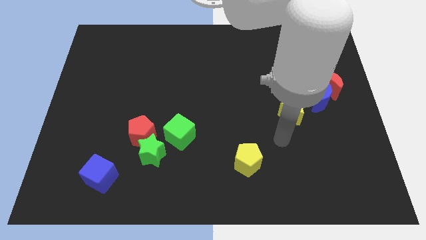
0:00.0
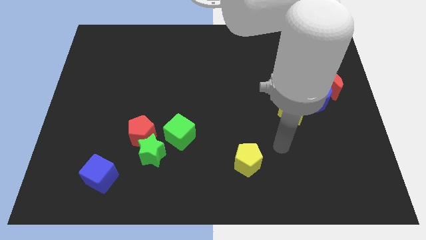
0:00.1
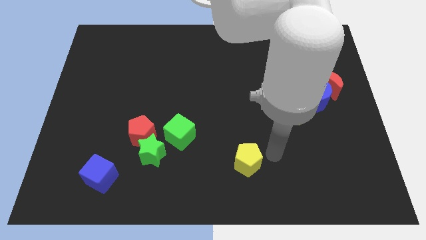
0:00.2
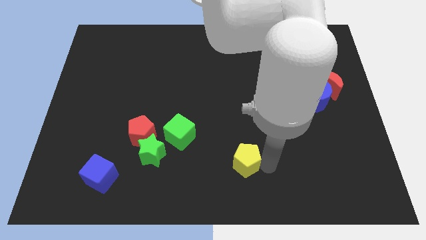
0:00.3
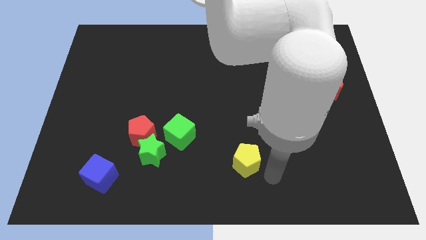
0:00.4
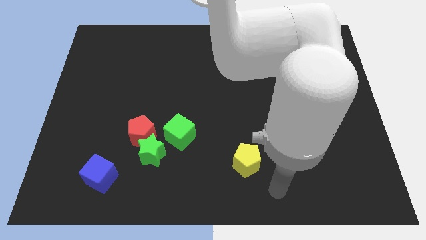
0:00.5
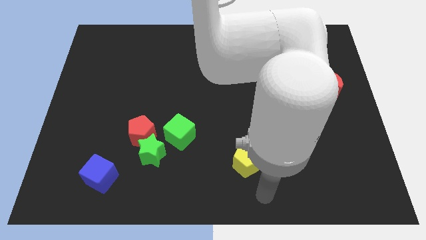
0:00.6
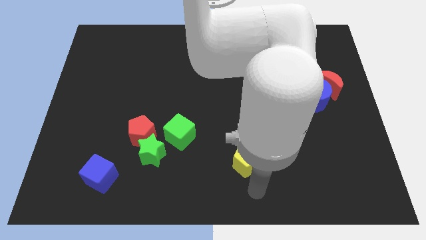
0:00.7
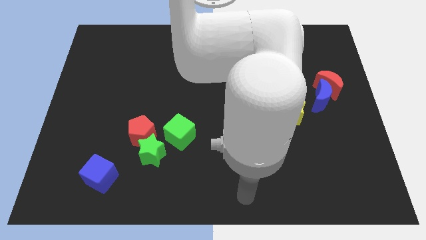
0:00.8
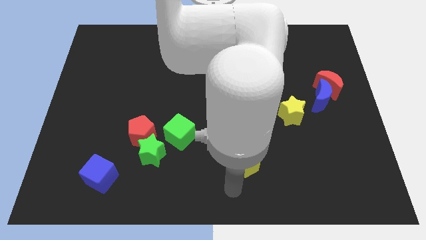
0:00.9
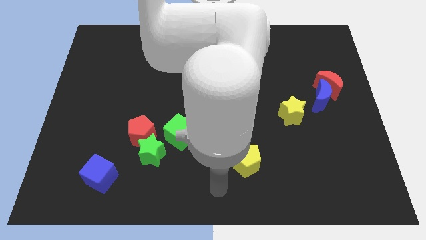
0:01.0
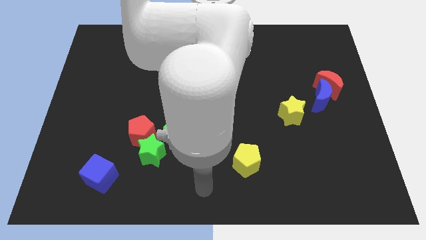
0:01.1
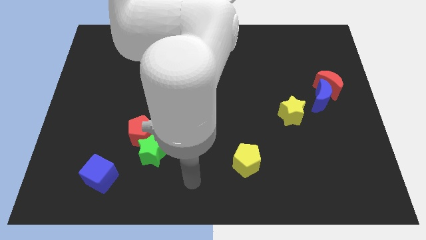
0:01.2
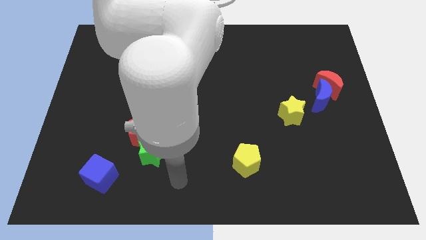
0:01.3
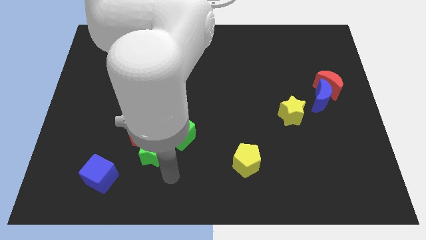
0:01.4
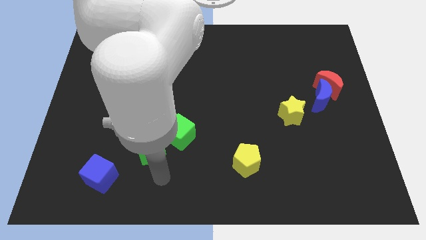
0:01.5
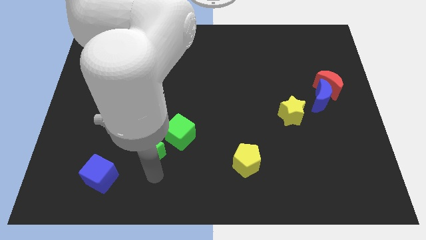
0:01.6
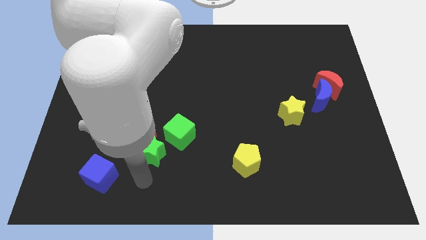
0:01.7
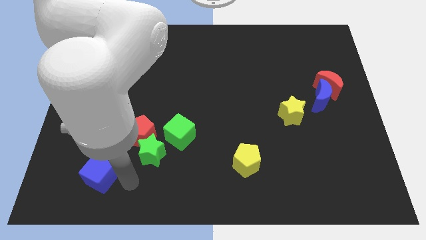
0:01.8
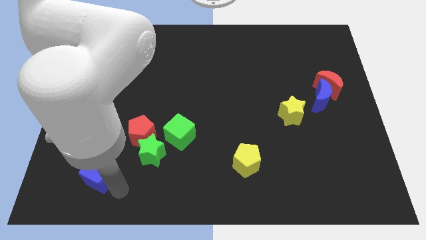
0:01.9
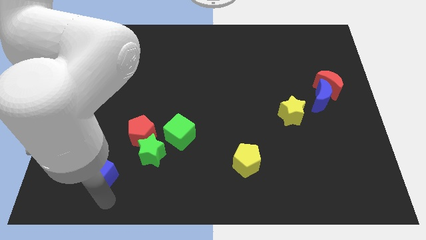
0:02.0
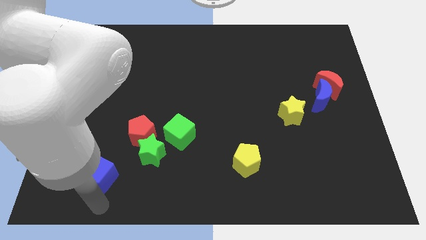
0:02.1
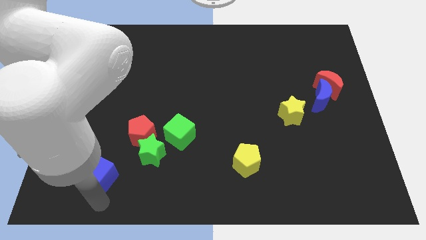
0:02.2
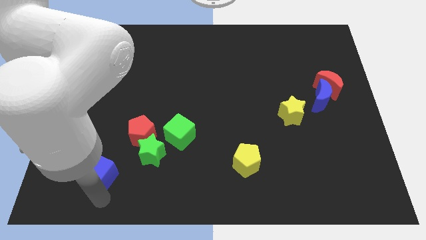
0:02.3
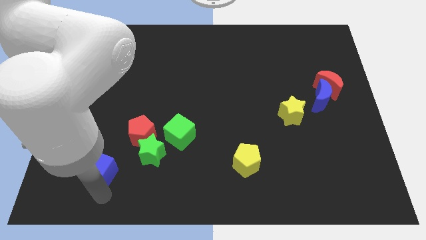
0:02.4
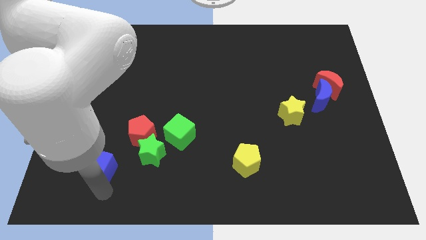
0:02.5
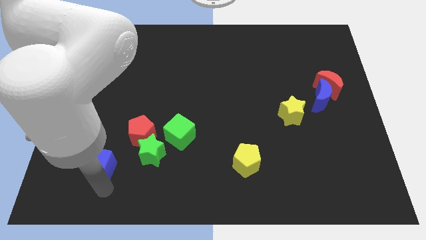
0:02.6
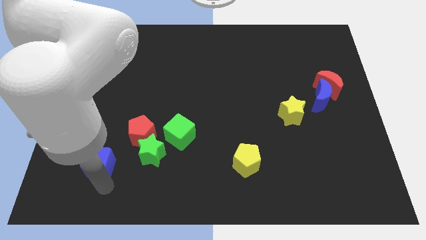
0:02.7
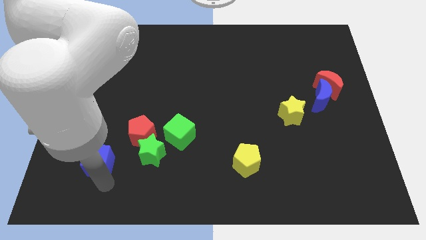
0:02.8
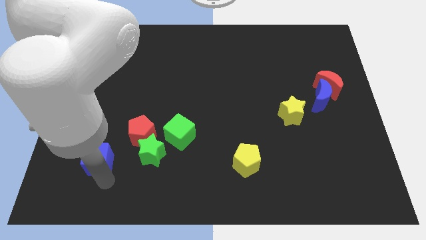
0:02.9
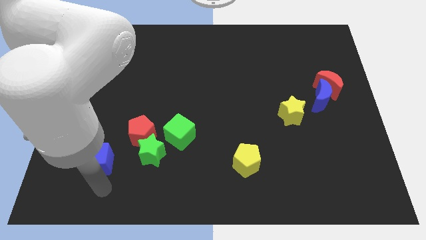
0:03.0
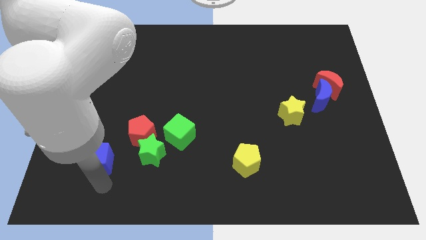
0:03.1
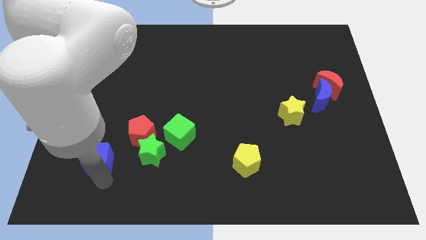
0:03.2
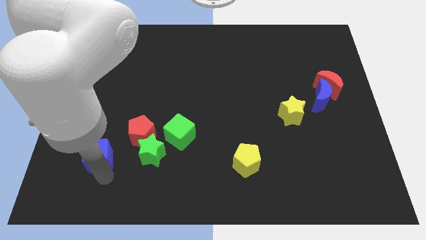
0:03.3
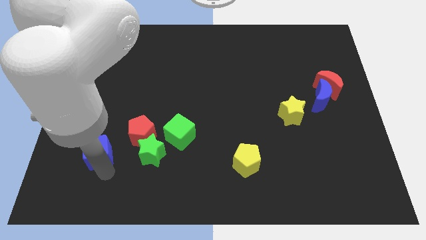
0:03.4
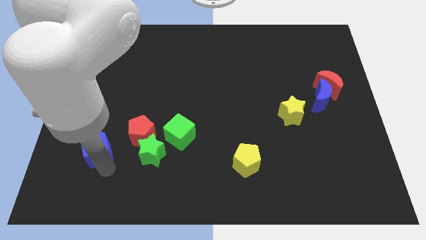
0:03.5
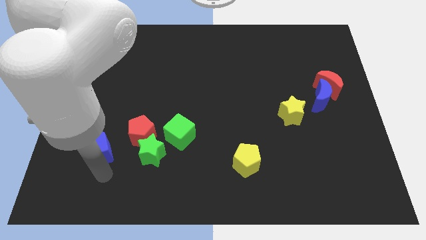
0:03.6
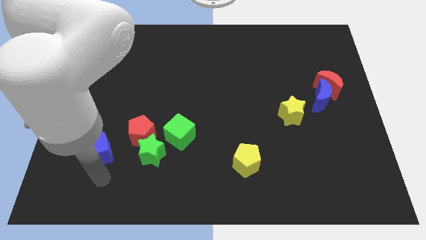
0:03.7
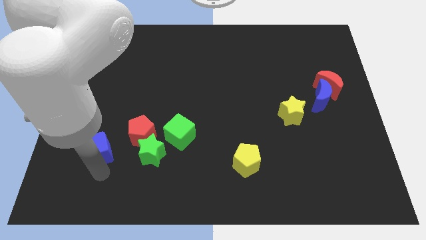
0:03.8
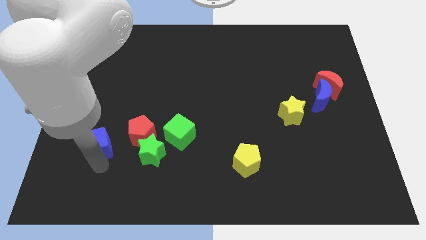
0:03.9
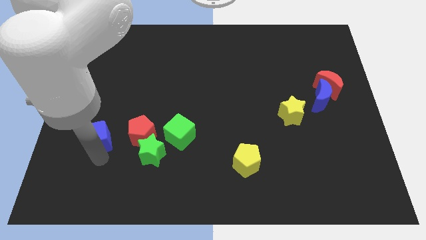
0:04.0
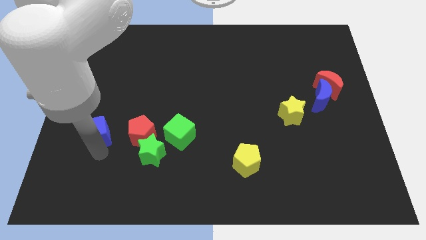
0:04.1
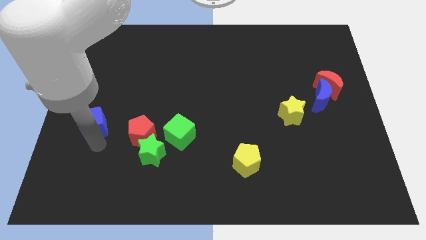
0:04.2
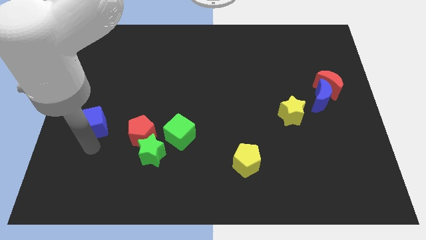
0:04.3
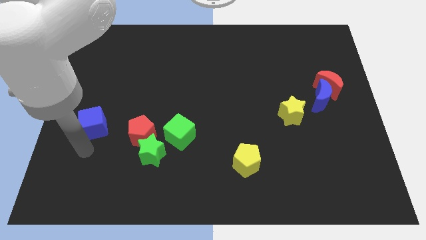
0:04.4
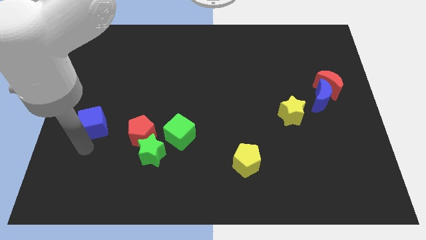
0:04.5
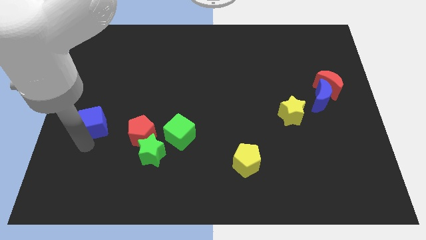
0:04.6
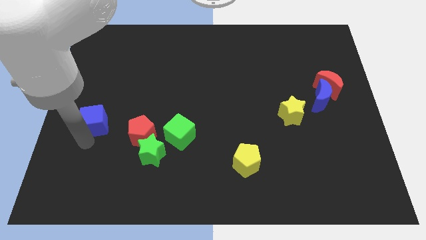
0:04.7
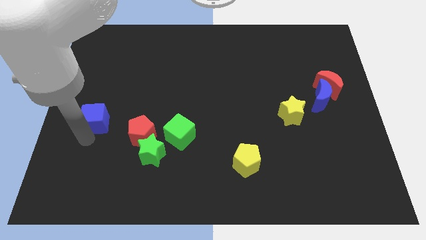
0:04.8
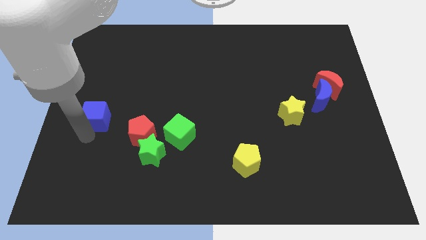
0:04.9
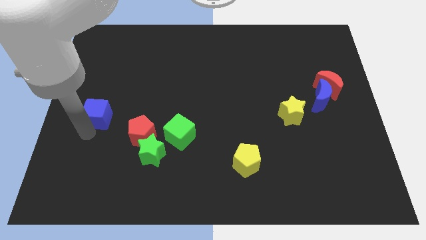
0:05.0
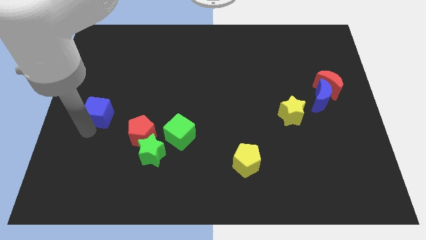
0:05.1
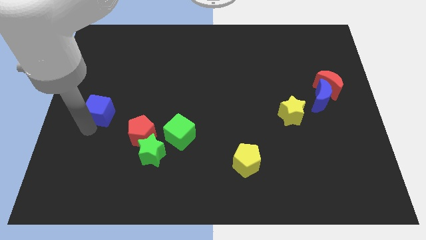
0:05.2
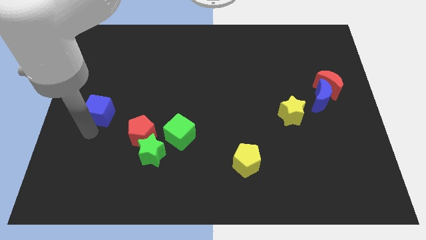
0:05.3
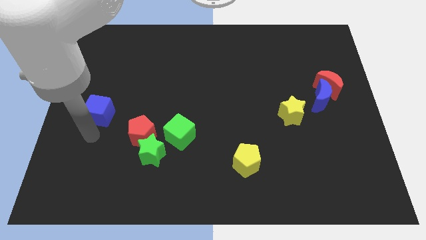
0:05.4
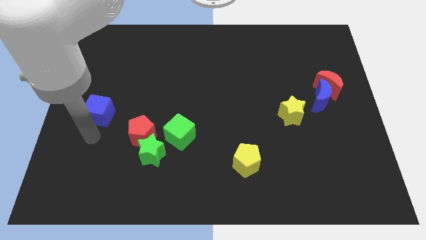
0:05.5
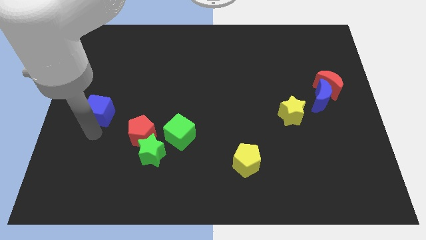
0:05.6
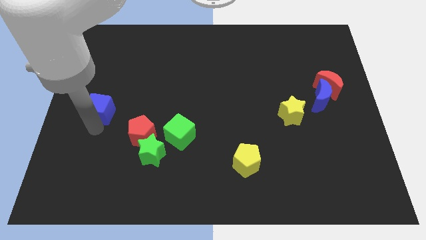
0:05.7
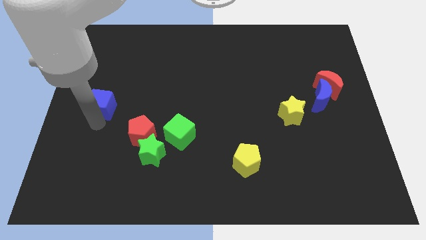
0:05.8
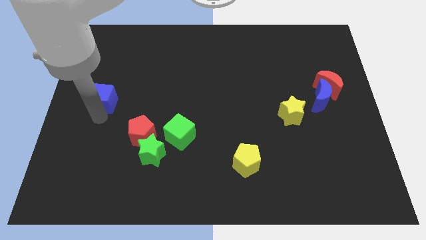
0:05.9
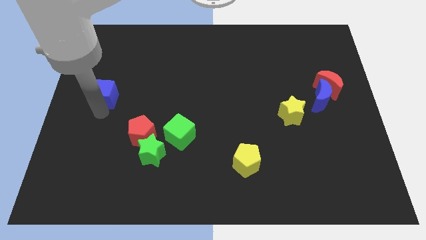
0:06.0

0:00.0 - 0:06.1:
slide the blue cube upwards

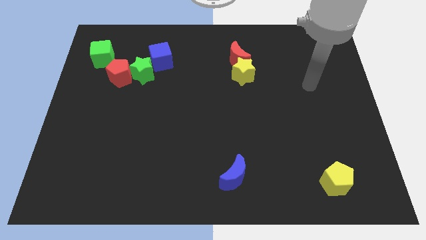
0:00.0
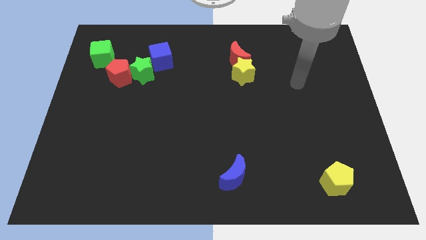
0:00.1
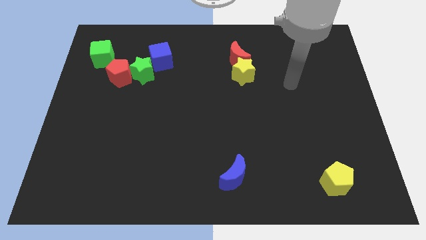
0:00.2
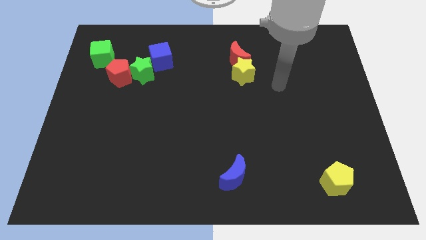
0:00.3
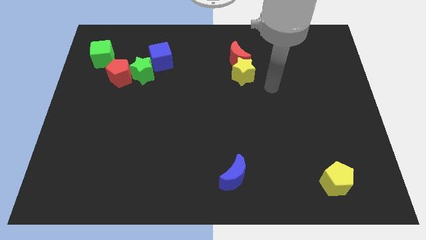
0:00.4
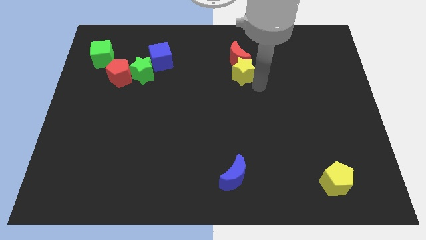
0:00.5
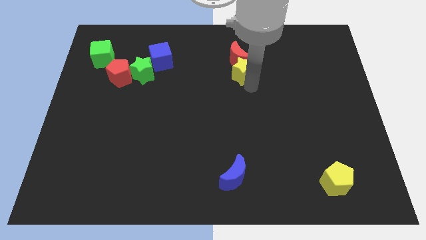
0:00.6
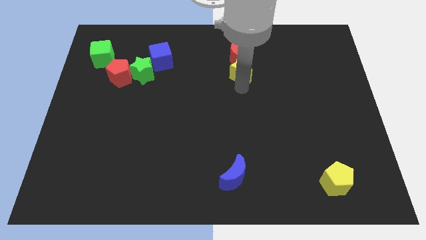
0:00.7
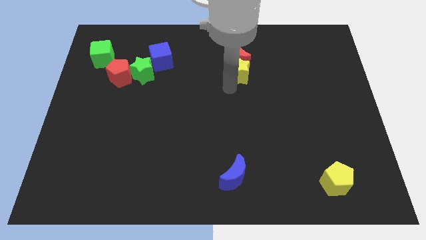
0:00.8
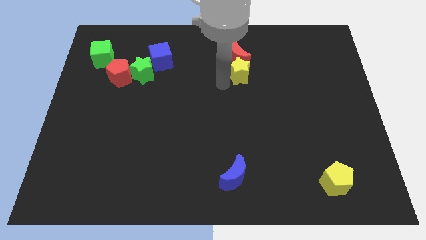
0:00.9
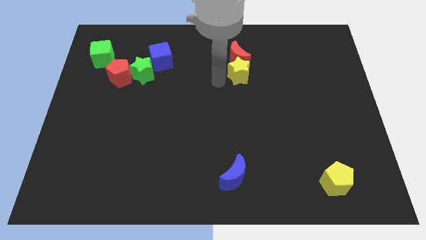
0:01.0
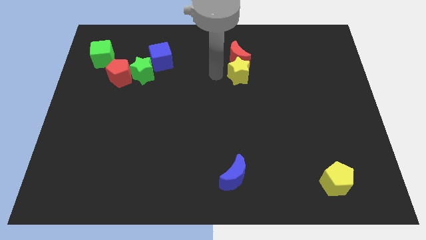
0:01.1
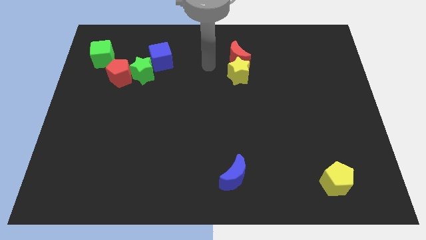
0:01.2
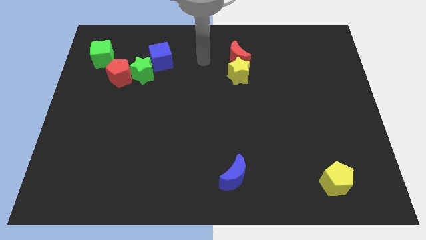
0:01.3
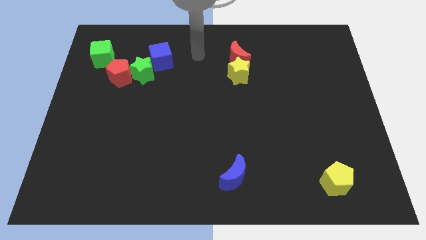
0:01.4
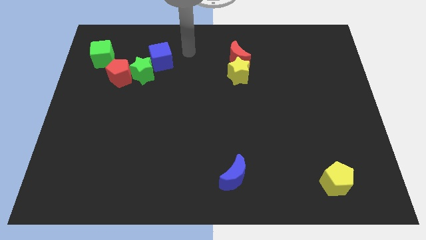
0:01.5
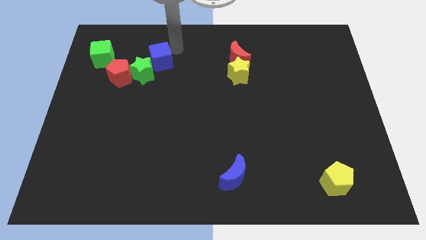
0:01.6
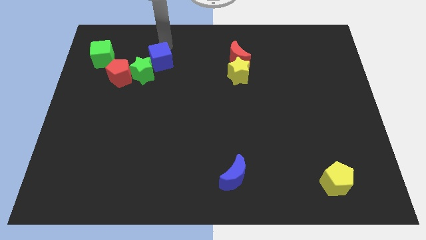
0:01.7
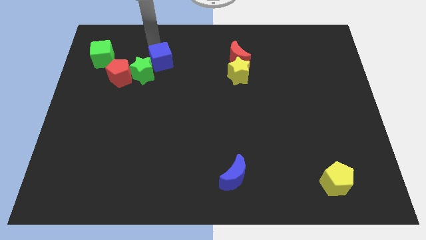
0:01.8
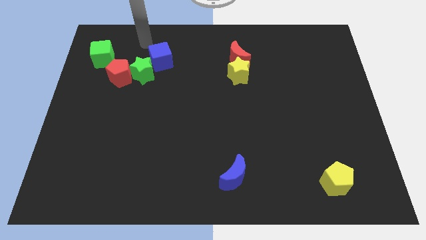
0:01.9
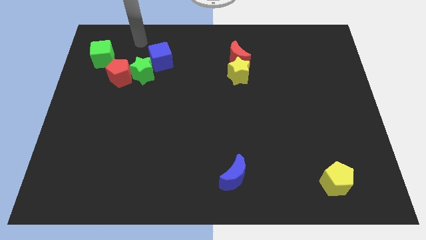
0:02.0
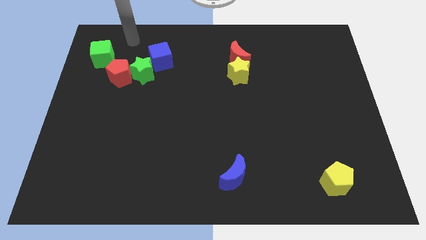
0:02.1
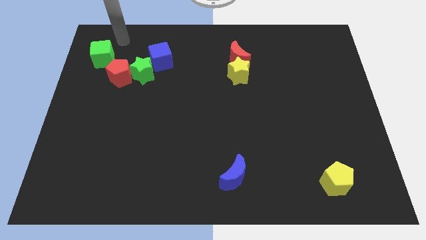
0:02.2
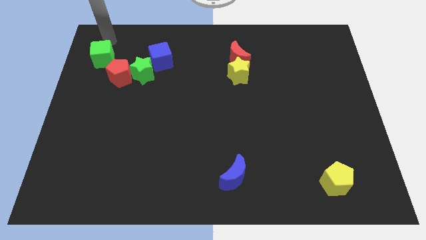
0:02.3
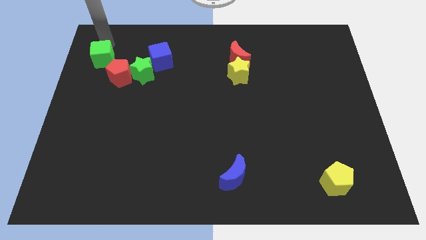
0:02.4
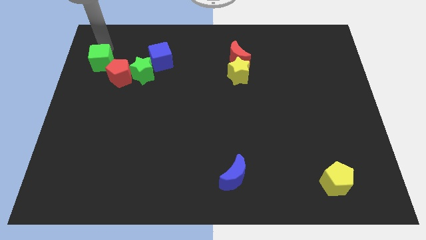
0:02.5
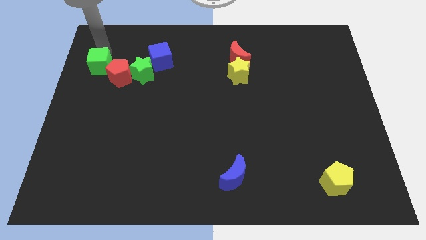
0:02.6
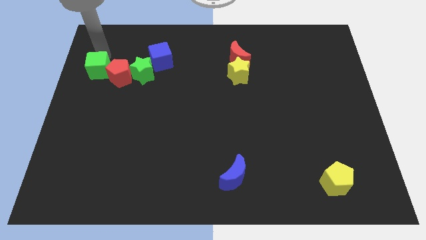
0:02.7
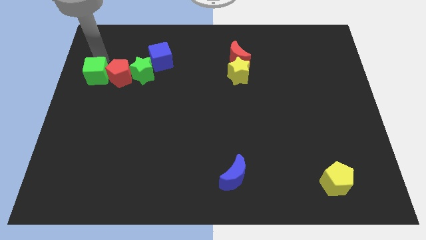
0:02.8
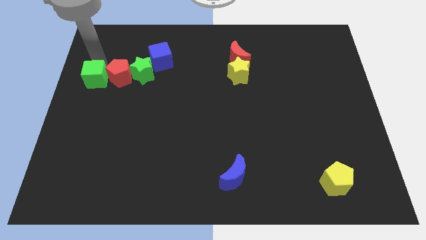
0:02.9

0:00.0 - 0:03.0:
move the green cube down slightly
